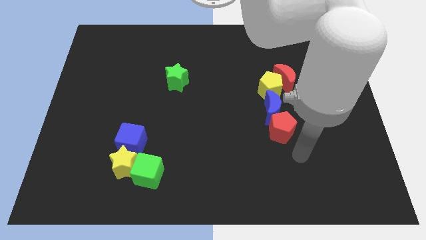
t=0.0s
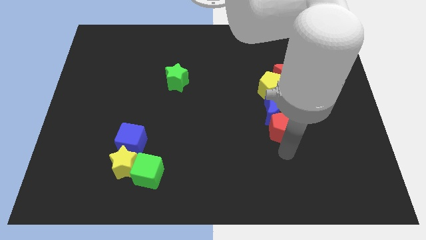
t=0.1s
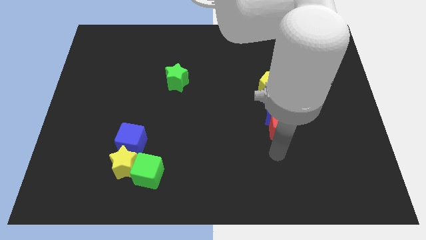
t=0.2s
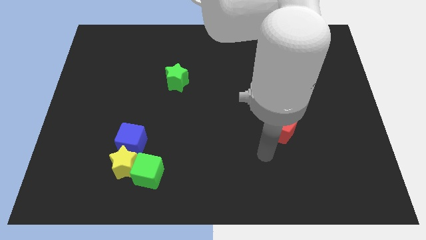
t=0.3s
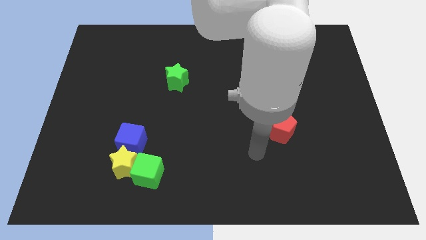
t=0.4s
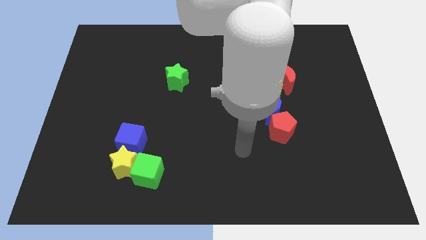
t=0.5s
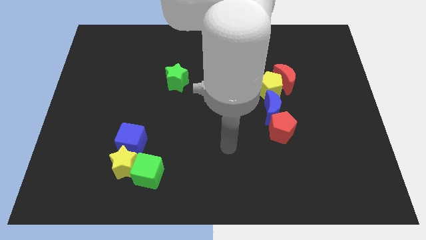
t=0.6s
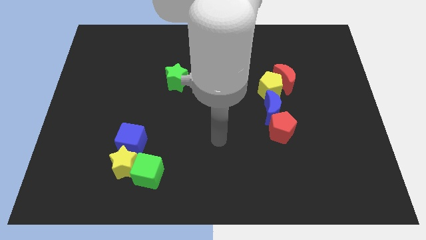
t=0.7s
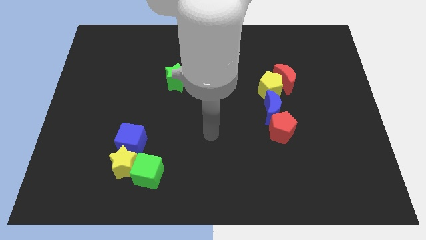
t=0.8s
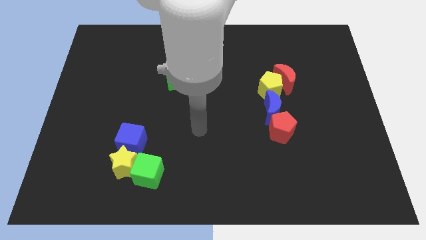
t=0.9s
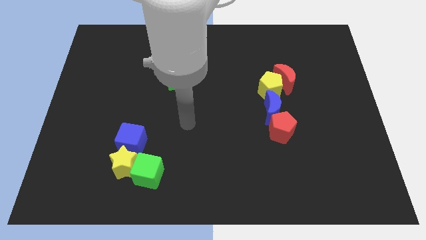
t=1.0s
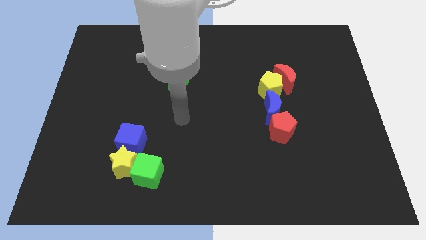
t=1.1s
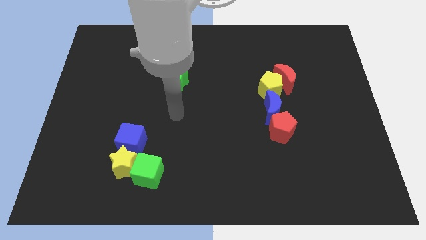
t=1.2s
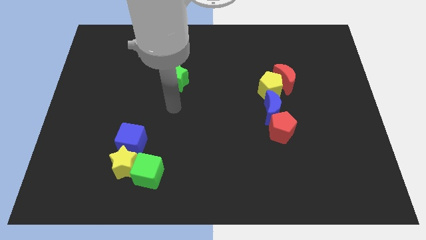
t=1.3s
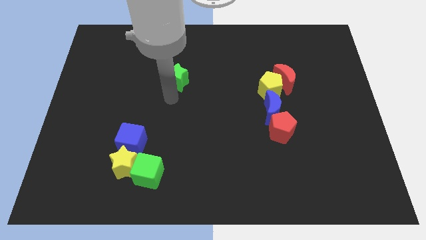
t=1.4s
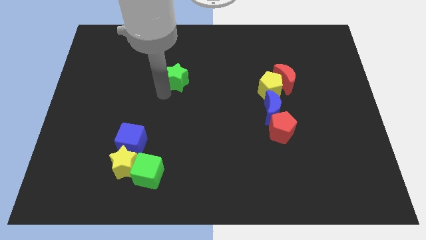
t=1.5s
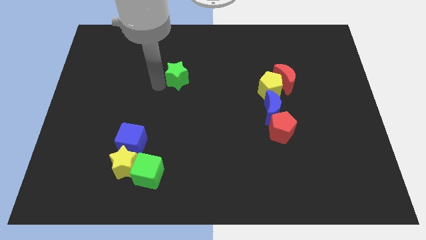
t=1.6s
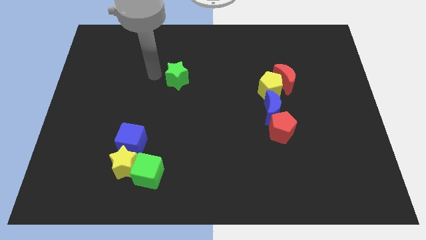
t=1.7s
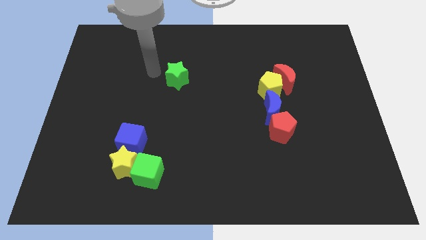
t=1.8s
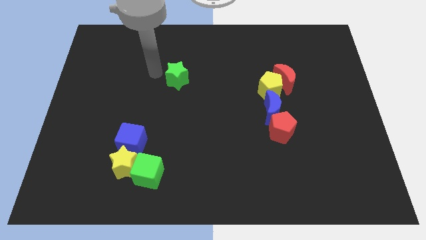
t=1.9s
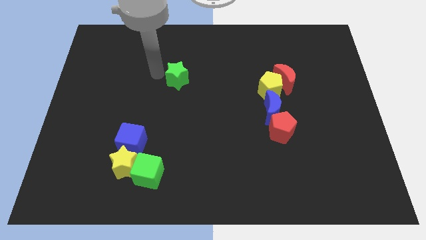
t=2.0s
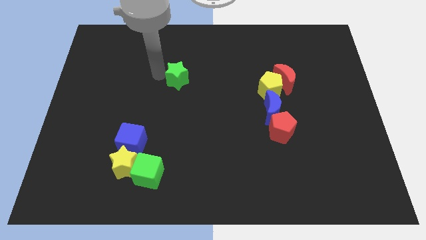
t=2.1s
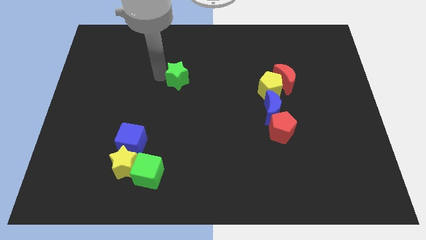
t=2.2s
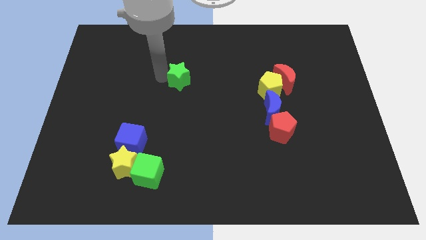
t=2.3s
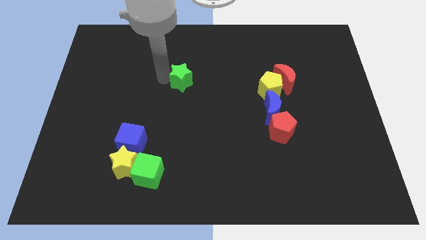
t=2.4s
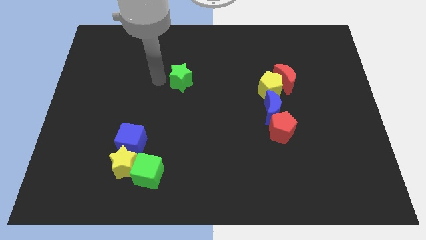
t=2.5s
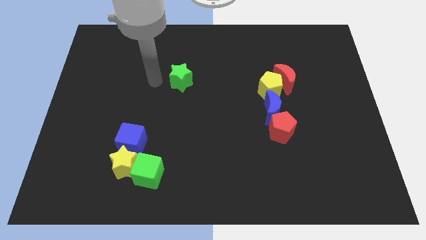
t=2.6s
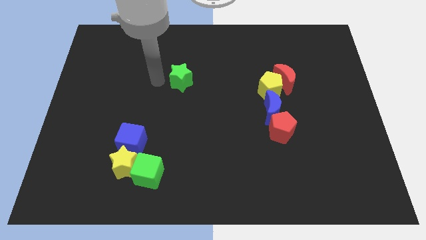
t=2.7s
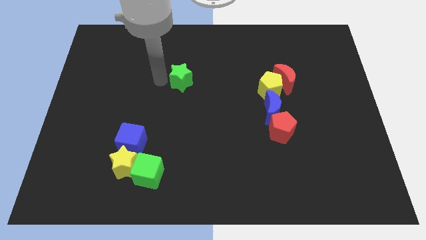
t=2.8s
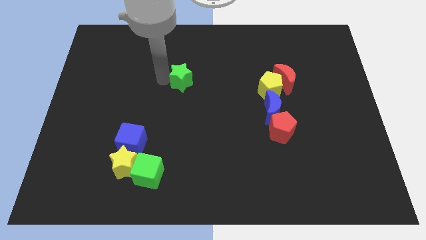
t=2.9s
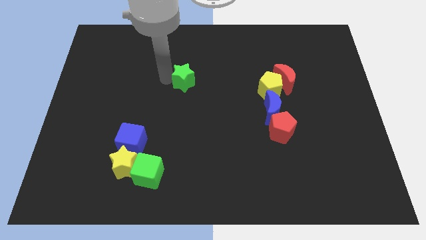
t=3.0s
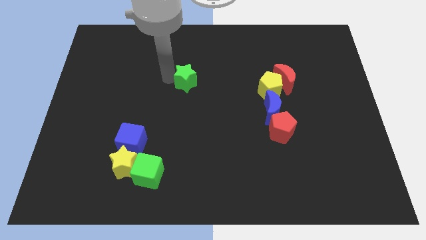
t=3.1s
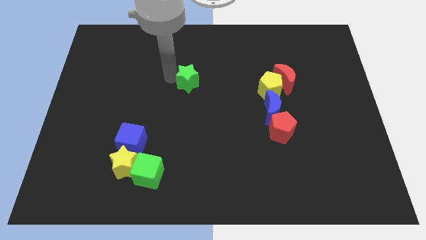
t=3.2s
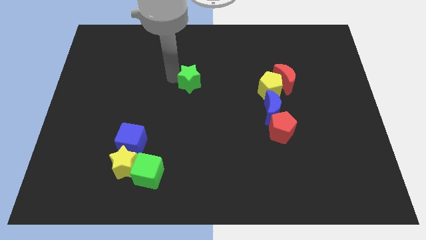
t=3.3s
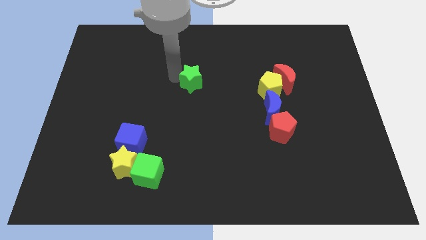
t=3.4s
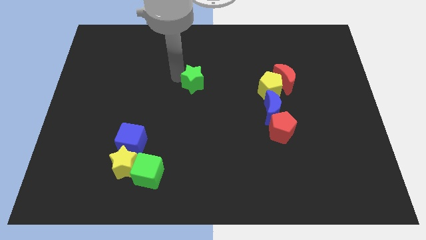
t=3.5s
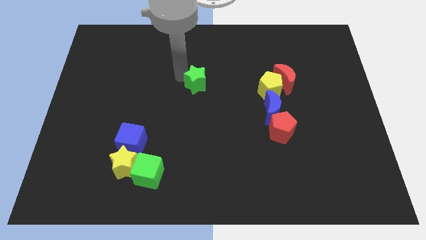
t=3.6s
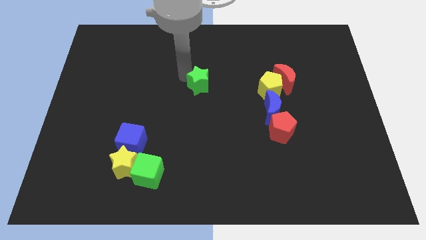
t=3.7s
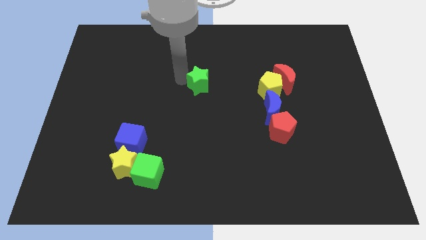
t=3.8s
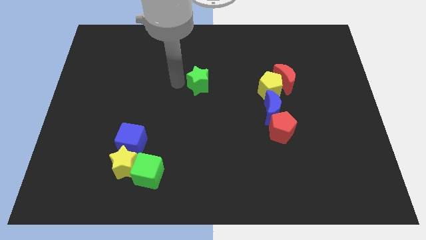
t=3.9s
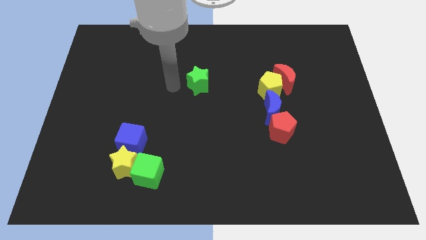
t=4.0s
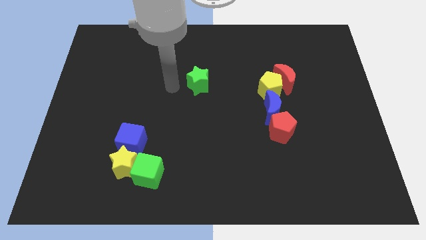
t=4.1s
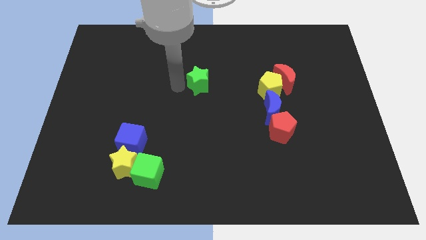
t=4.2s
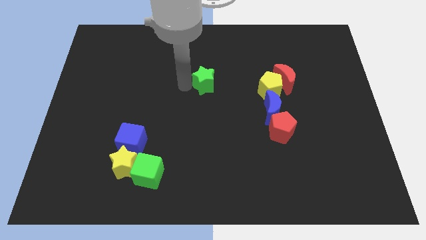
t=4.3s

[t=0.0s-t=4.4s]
push the green star to the right a bit

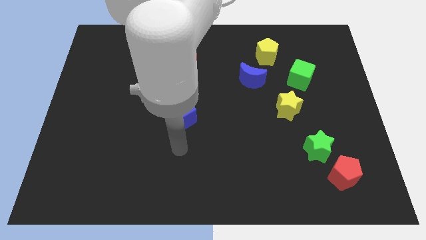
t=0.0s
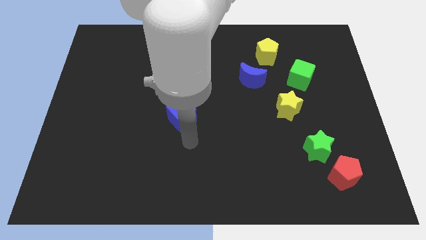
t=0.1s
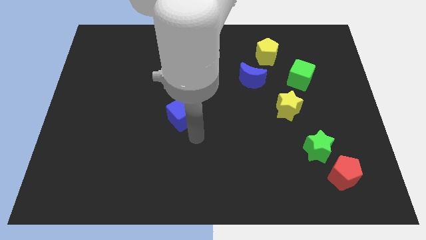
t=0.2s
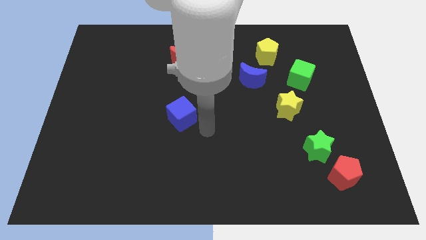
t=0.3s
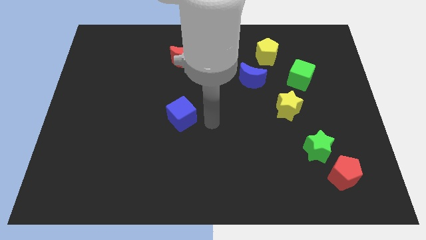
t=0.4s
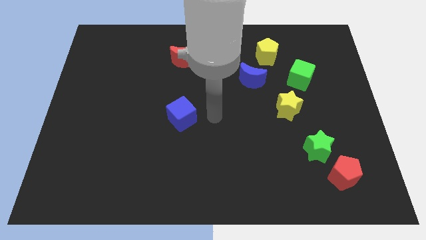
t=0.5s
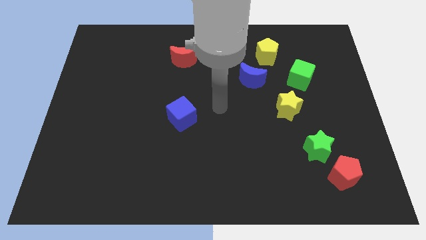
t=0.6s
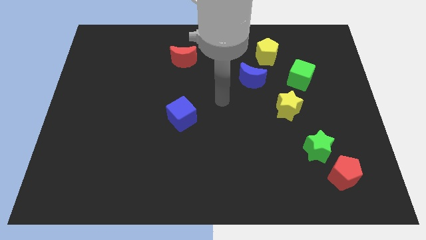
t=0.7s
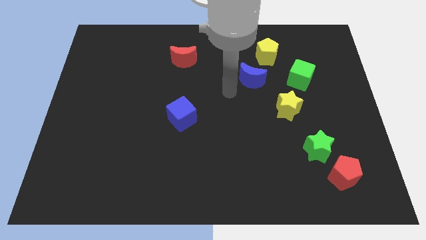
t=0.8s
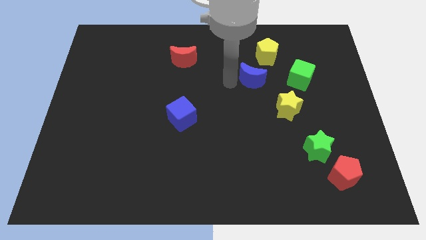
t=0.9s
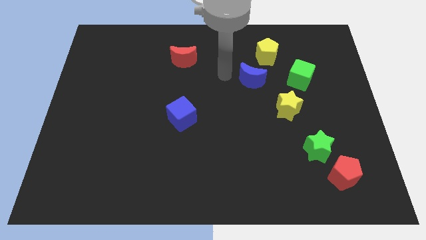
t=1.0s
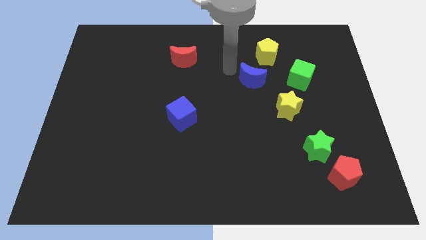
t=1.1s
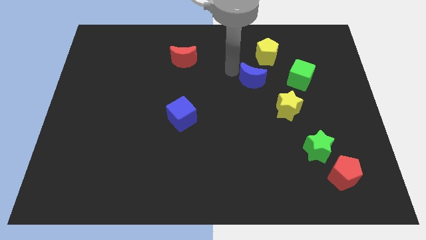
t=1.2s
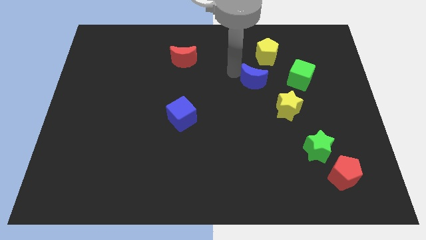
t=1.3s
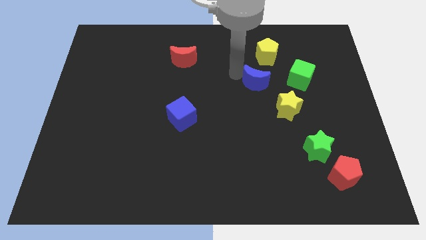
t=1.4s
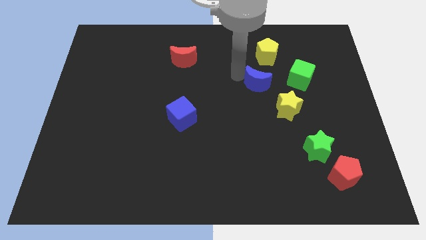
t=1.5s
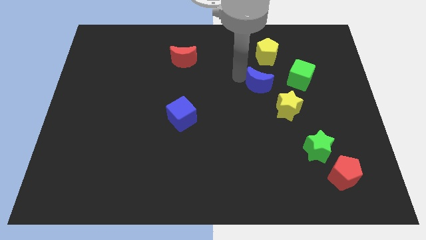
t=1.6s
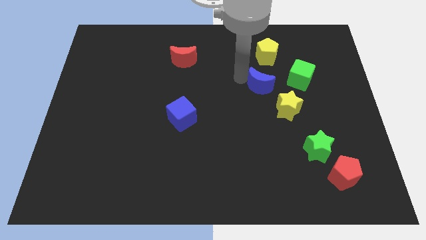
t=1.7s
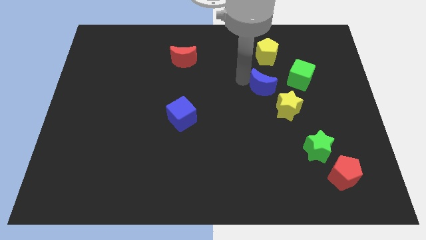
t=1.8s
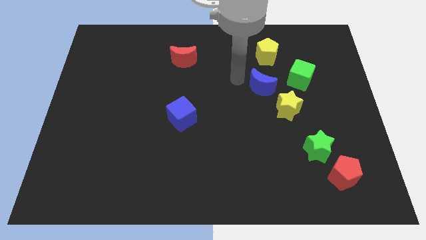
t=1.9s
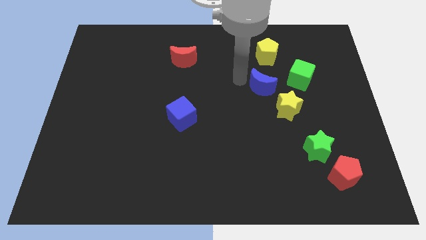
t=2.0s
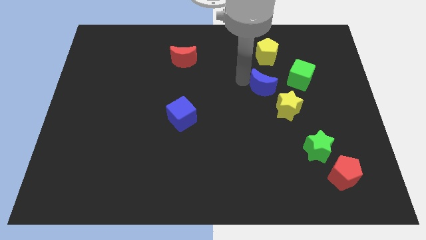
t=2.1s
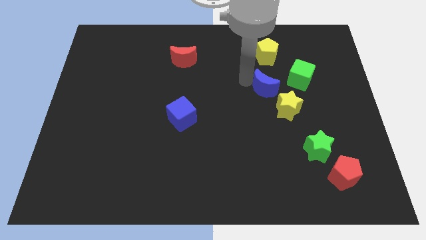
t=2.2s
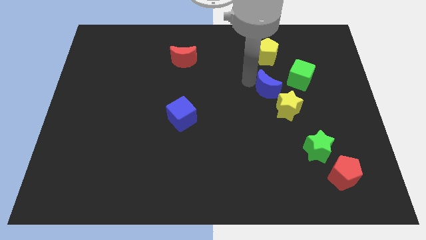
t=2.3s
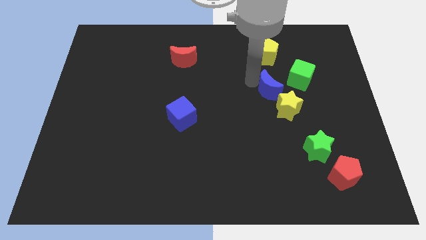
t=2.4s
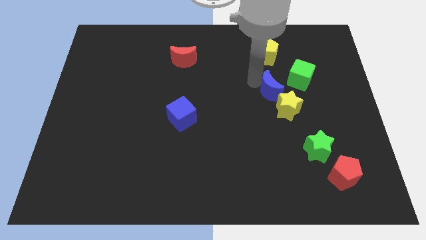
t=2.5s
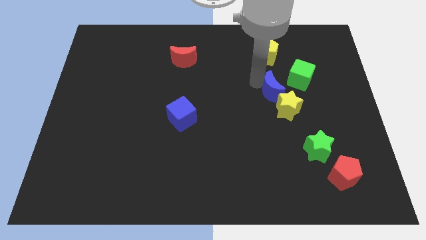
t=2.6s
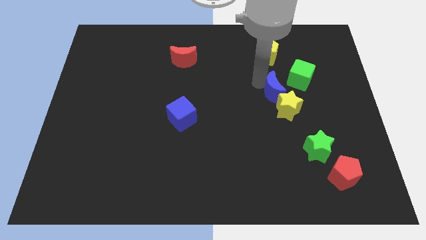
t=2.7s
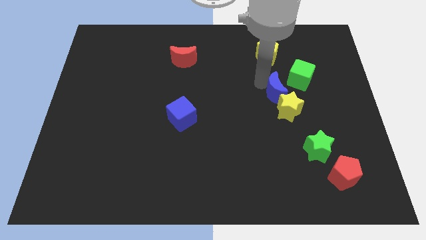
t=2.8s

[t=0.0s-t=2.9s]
push the blue moon slightly down and then right
